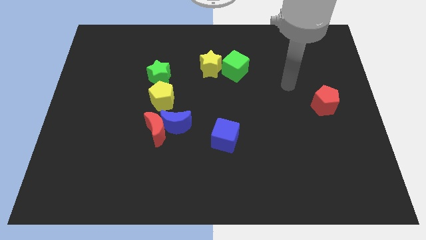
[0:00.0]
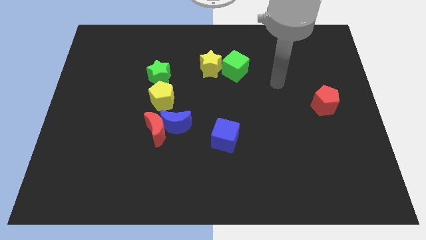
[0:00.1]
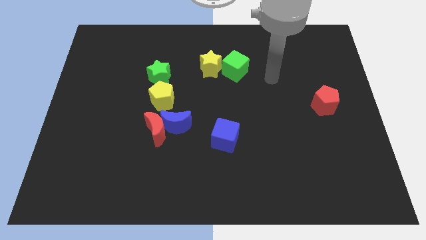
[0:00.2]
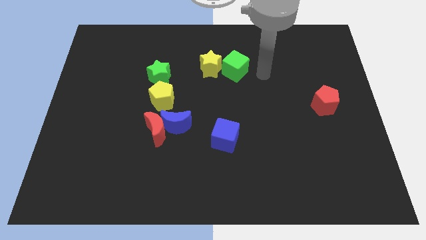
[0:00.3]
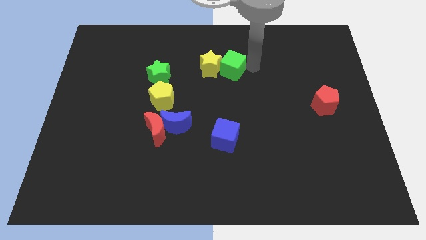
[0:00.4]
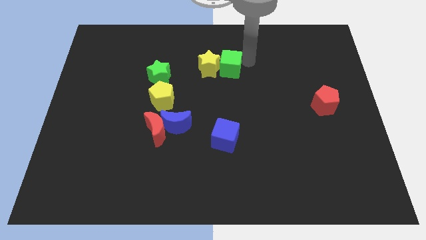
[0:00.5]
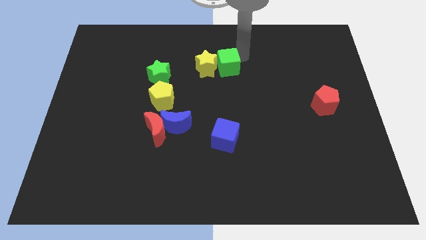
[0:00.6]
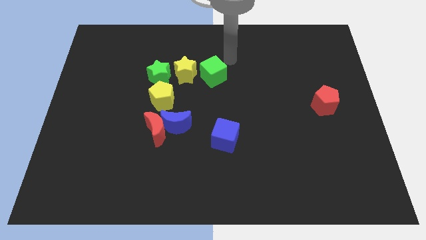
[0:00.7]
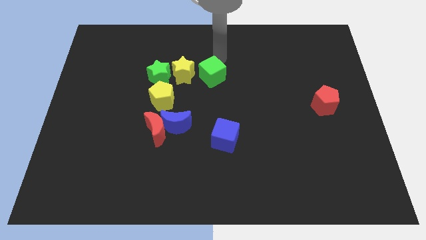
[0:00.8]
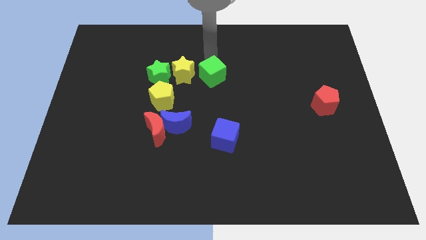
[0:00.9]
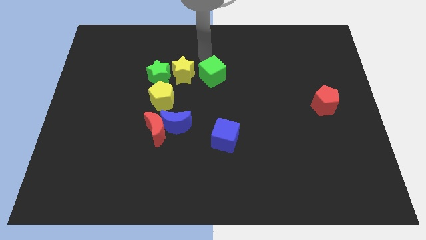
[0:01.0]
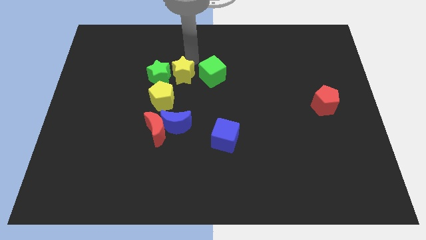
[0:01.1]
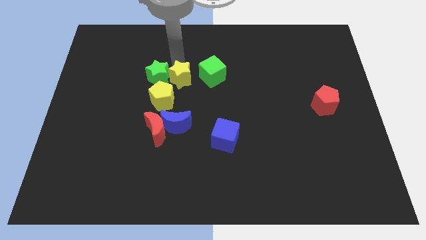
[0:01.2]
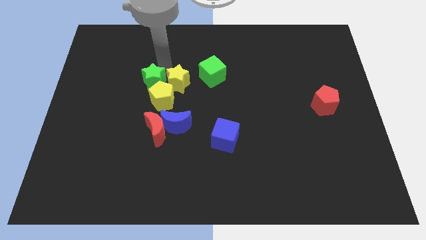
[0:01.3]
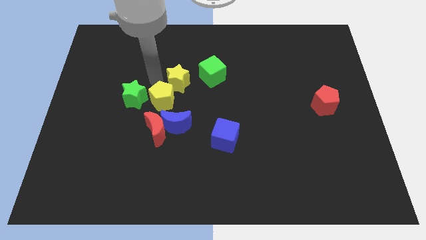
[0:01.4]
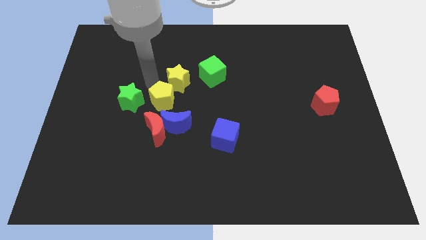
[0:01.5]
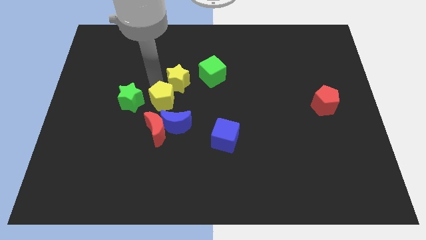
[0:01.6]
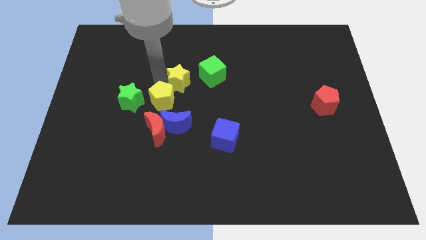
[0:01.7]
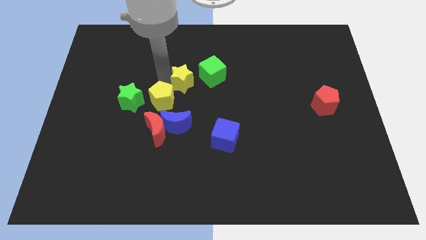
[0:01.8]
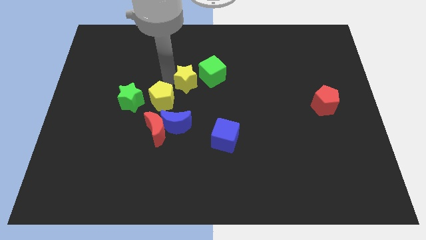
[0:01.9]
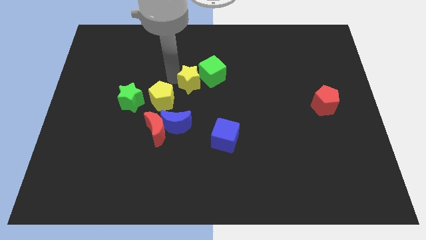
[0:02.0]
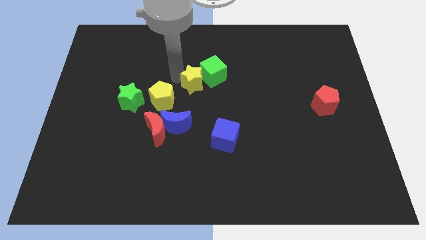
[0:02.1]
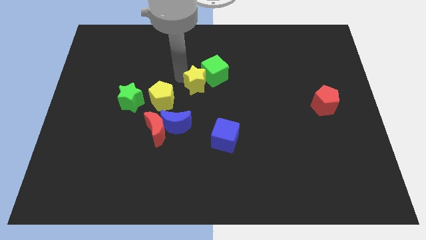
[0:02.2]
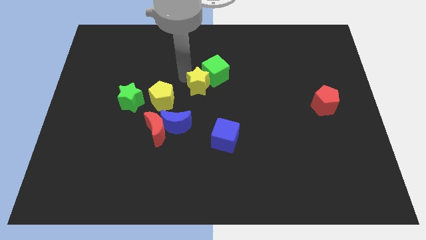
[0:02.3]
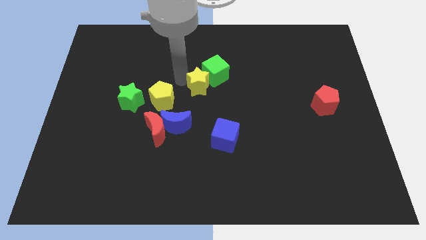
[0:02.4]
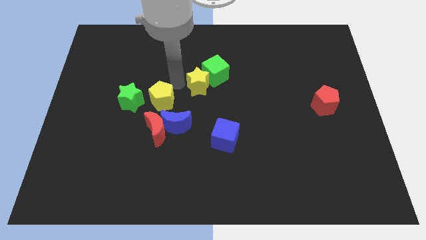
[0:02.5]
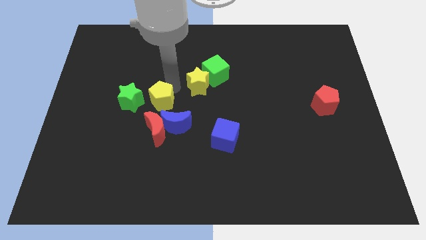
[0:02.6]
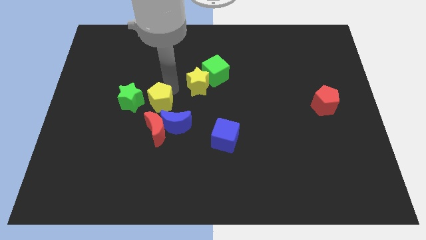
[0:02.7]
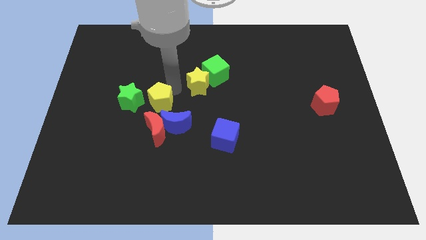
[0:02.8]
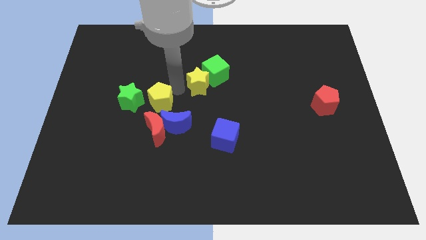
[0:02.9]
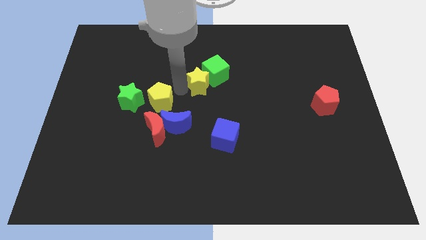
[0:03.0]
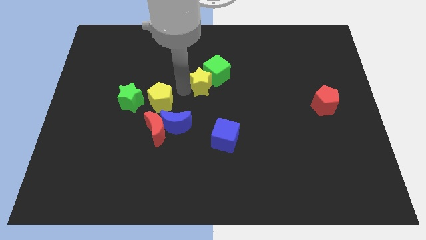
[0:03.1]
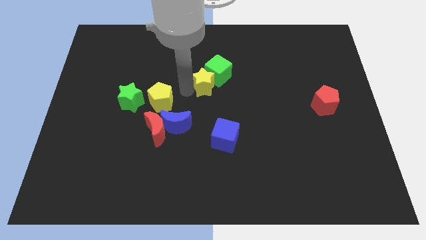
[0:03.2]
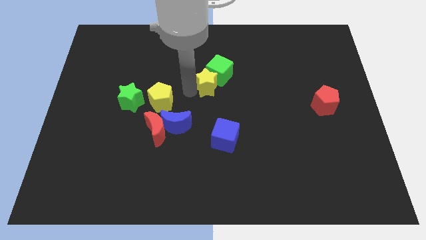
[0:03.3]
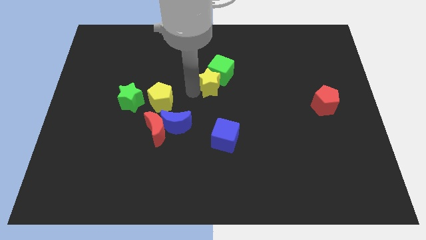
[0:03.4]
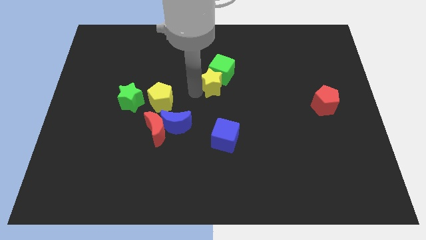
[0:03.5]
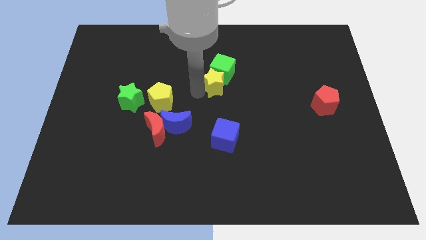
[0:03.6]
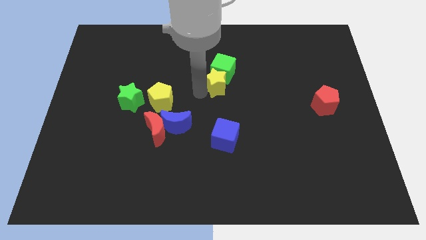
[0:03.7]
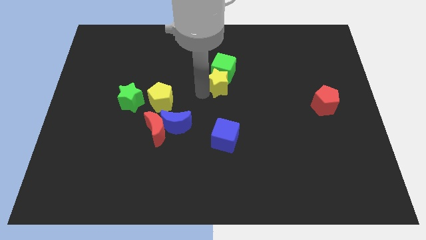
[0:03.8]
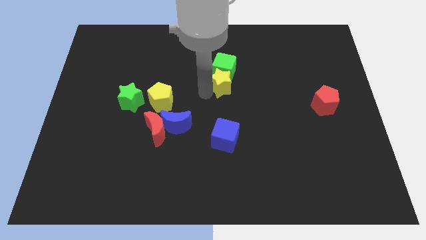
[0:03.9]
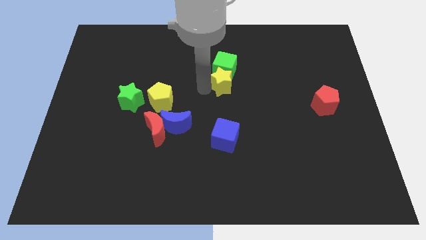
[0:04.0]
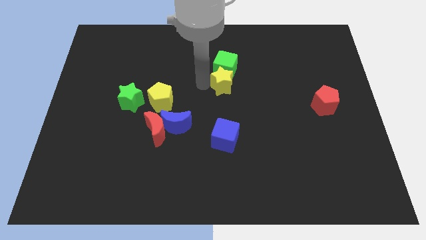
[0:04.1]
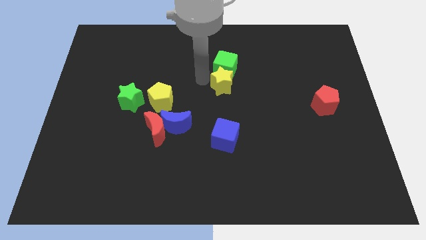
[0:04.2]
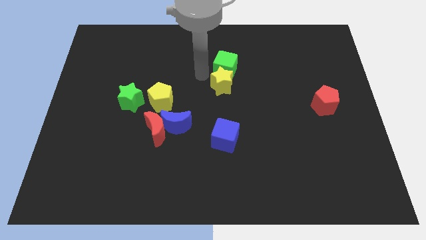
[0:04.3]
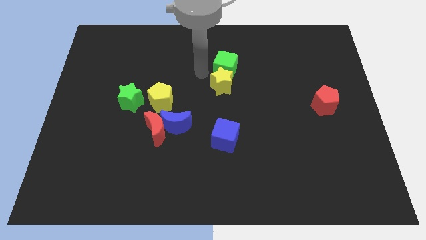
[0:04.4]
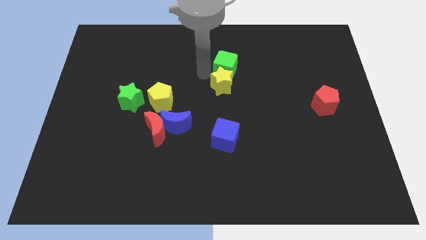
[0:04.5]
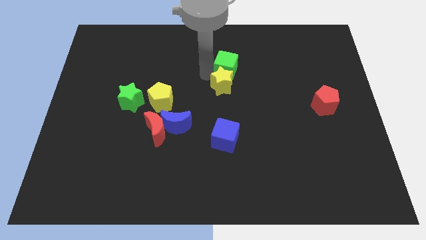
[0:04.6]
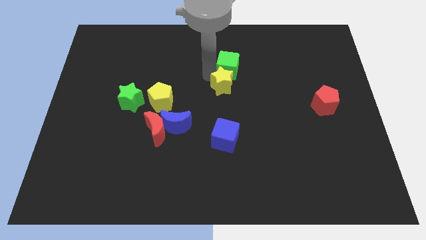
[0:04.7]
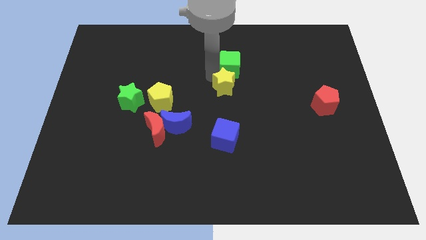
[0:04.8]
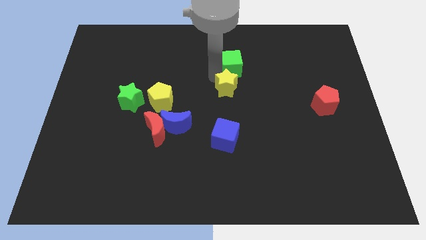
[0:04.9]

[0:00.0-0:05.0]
move the yellow star a little down and right

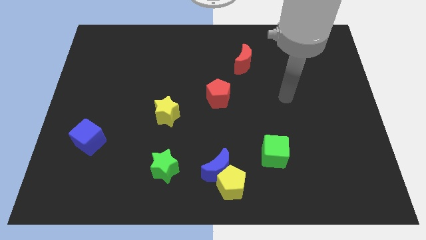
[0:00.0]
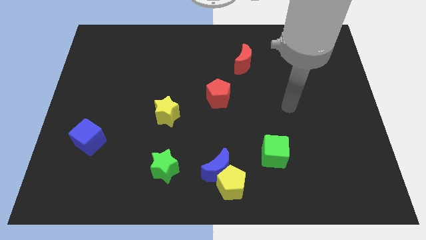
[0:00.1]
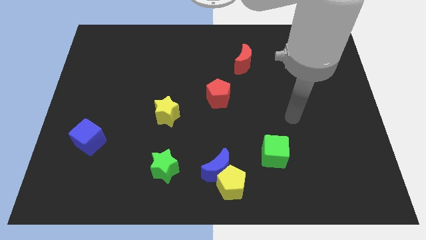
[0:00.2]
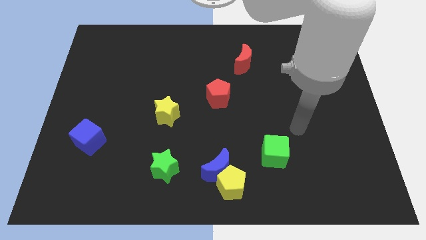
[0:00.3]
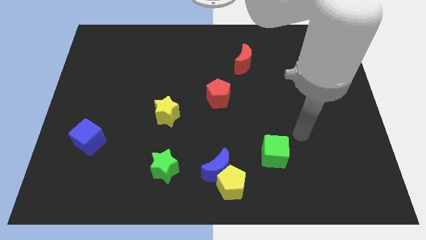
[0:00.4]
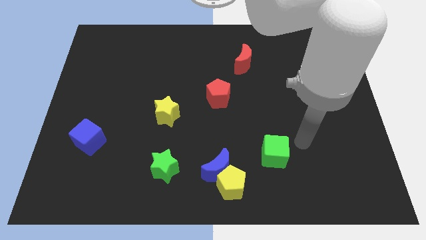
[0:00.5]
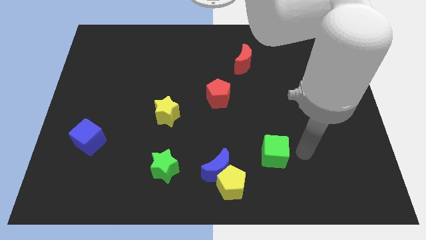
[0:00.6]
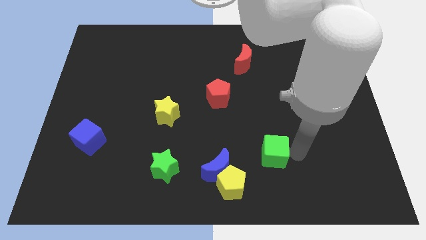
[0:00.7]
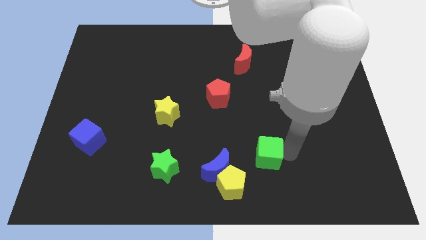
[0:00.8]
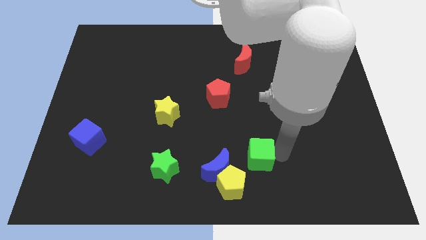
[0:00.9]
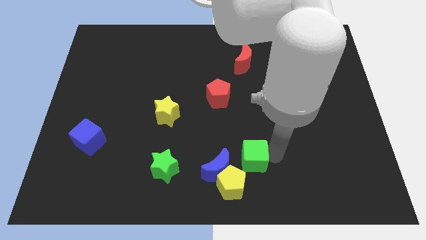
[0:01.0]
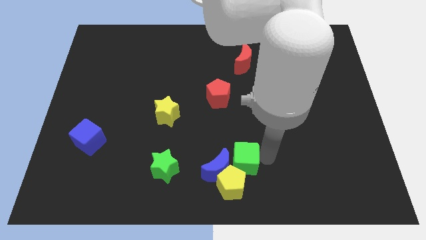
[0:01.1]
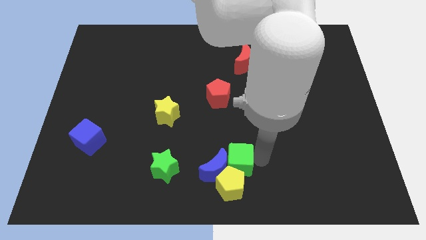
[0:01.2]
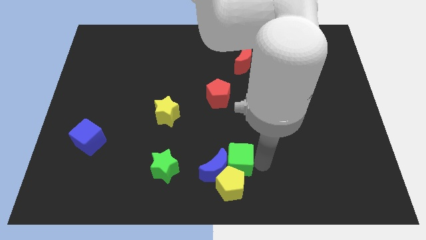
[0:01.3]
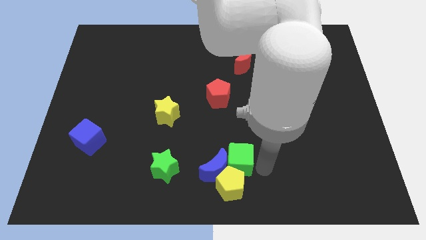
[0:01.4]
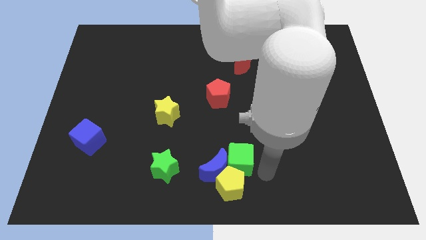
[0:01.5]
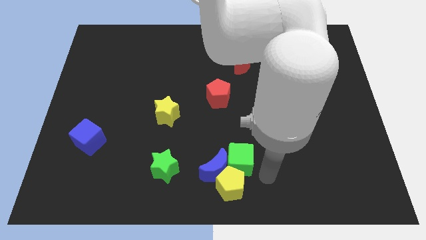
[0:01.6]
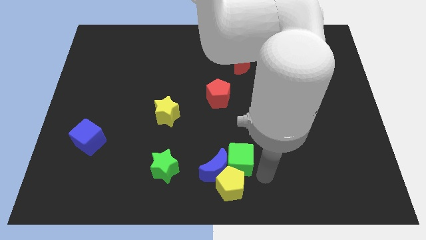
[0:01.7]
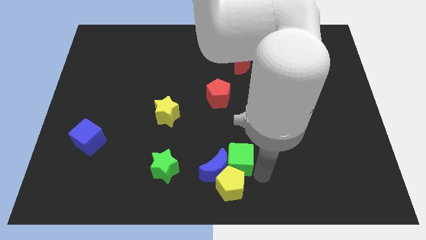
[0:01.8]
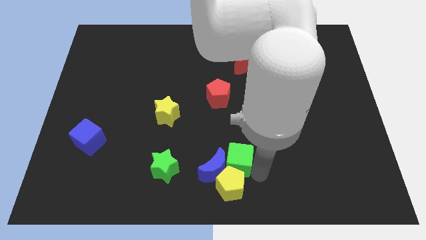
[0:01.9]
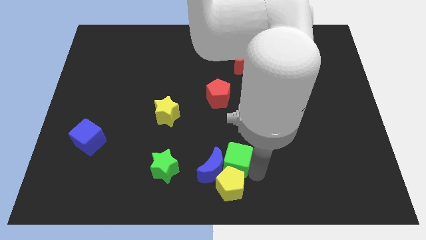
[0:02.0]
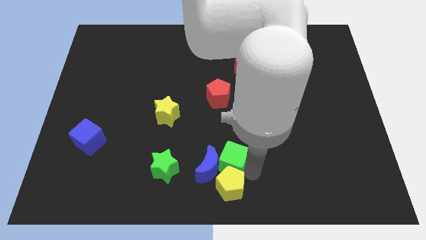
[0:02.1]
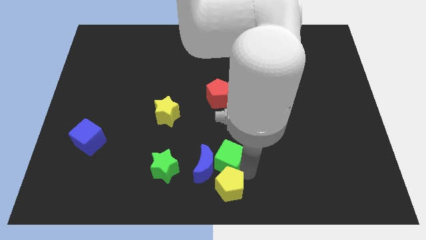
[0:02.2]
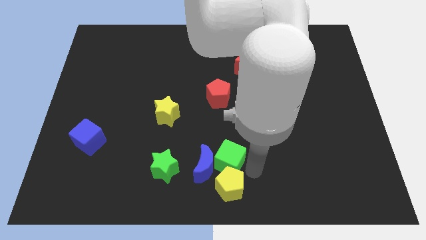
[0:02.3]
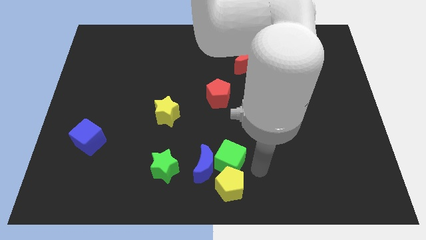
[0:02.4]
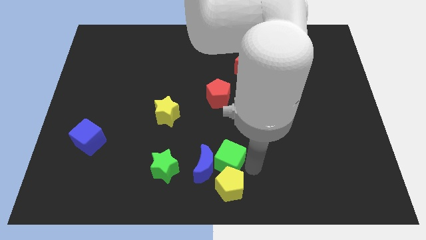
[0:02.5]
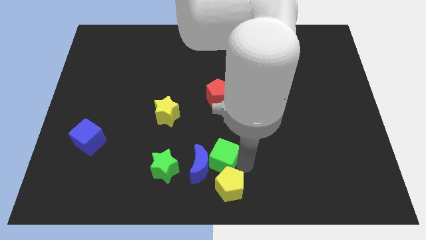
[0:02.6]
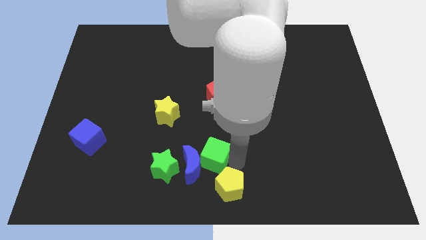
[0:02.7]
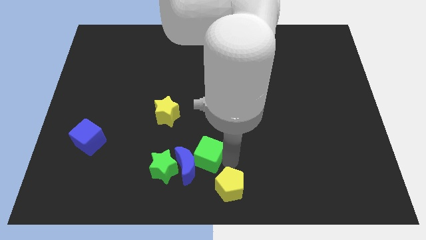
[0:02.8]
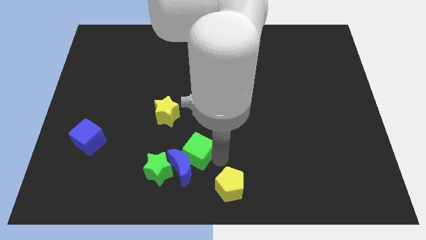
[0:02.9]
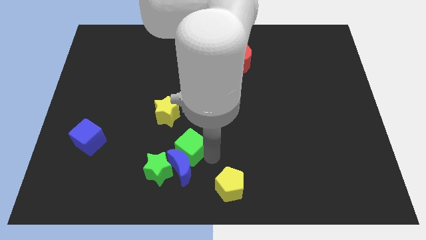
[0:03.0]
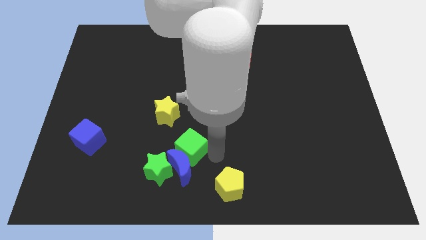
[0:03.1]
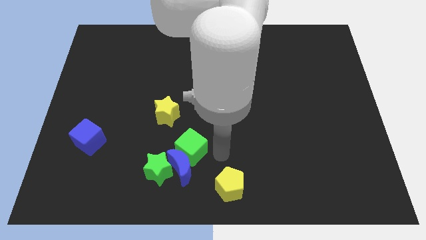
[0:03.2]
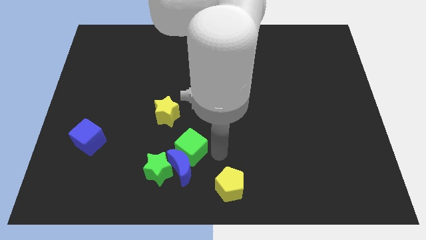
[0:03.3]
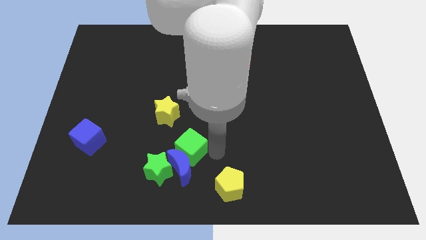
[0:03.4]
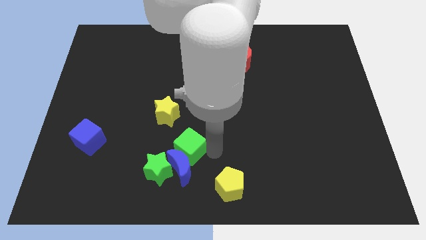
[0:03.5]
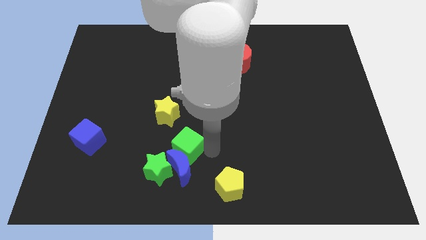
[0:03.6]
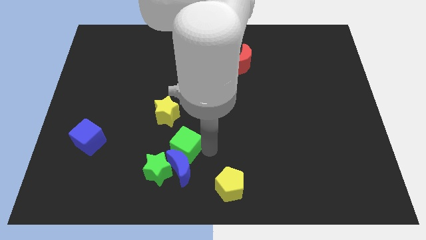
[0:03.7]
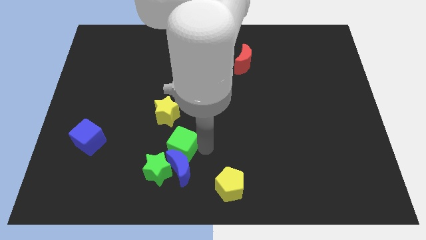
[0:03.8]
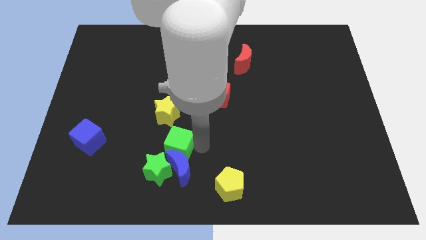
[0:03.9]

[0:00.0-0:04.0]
push the green cube to the left
